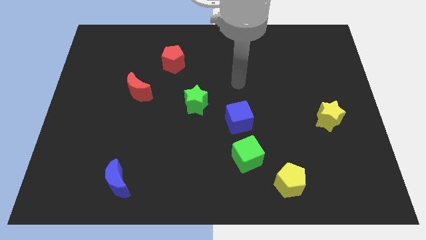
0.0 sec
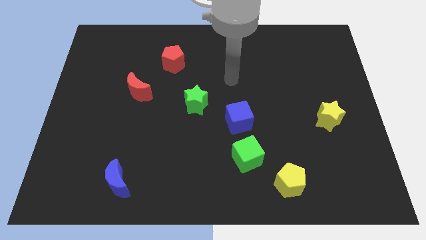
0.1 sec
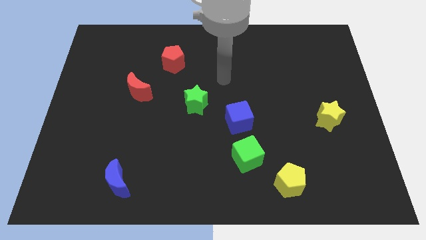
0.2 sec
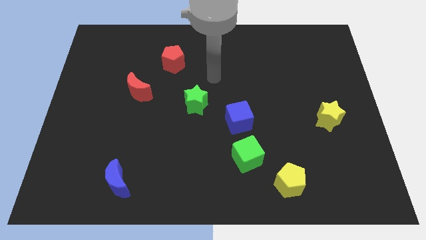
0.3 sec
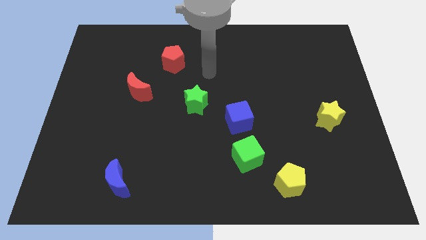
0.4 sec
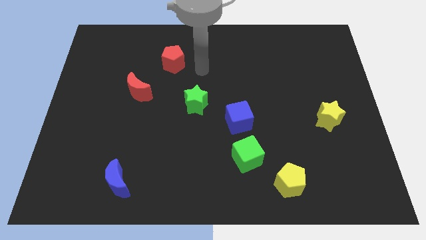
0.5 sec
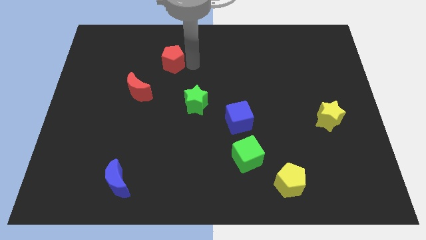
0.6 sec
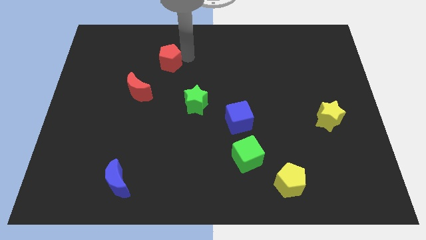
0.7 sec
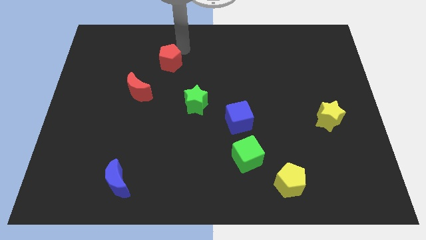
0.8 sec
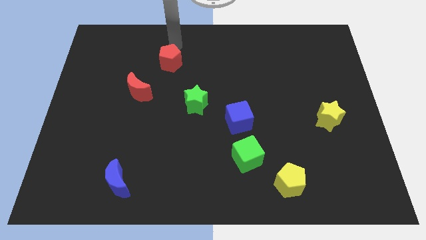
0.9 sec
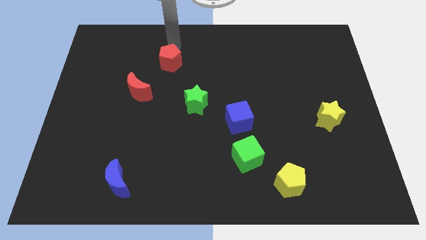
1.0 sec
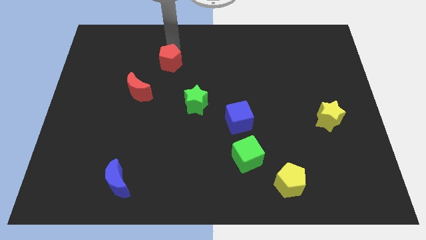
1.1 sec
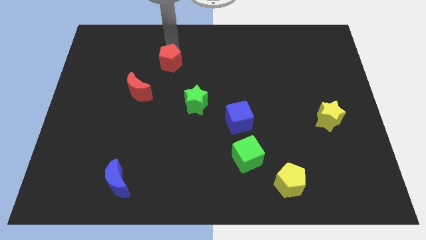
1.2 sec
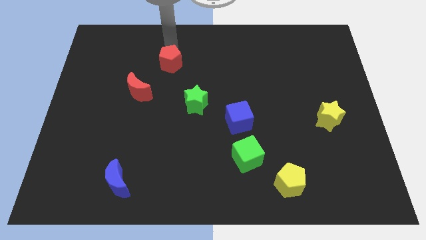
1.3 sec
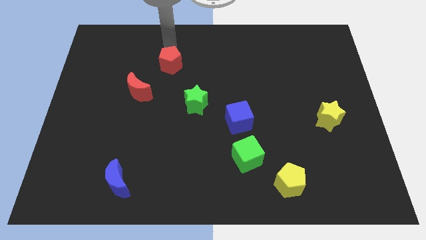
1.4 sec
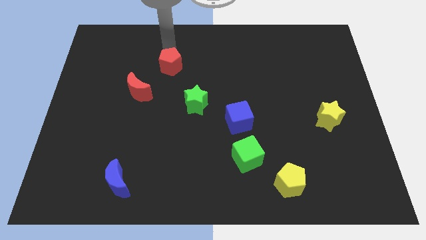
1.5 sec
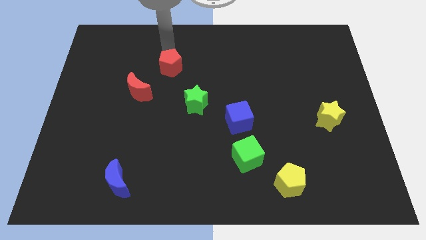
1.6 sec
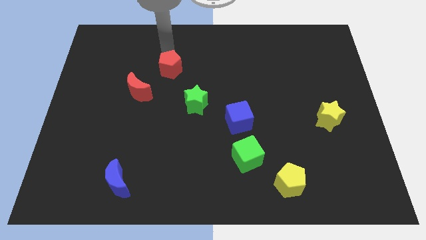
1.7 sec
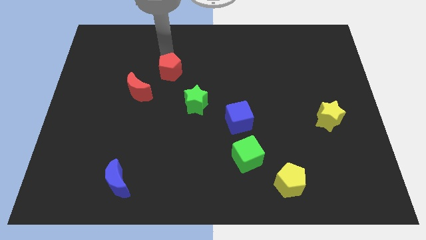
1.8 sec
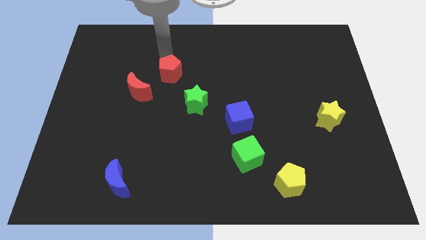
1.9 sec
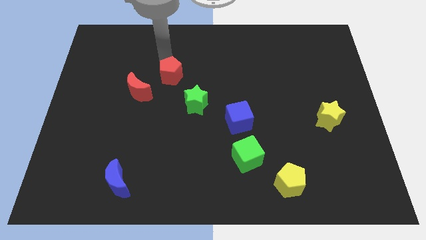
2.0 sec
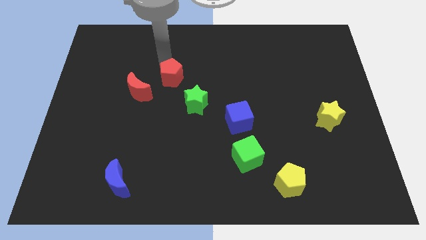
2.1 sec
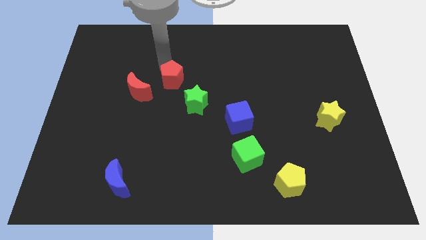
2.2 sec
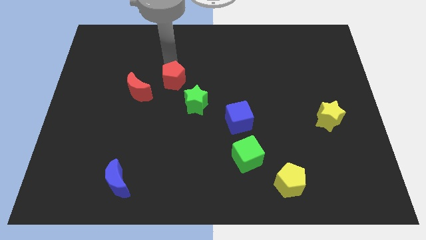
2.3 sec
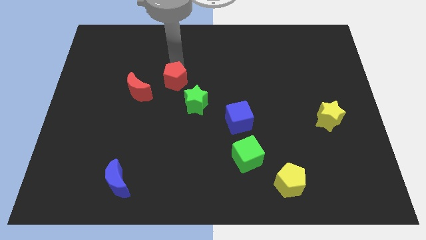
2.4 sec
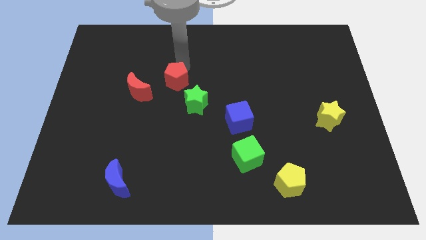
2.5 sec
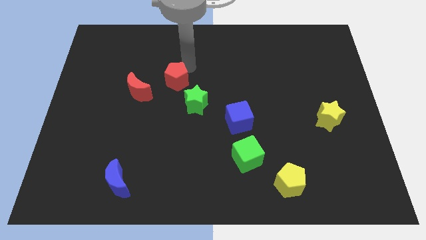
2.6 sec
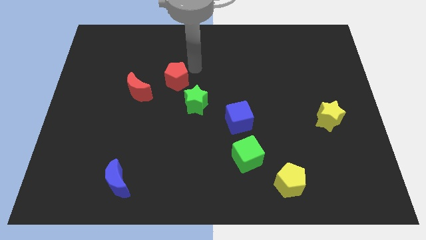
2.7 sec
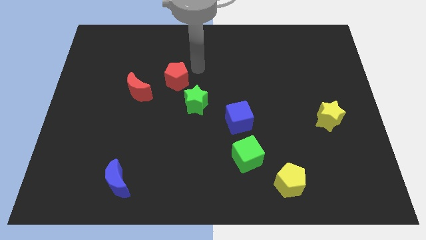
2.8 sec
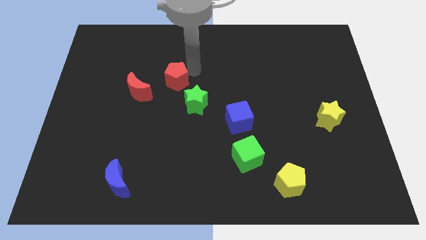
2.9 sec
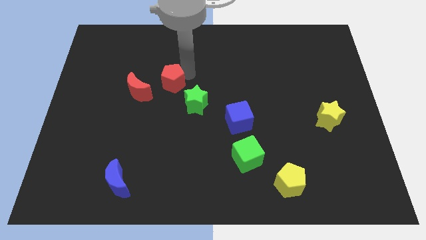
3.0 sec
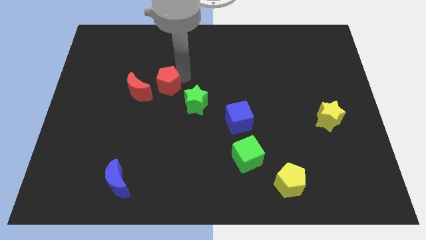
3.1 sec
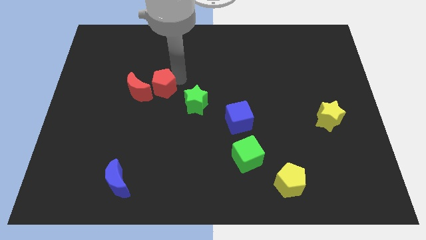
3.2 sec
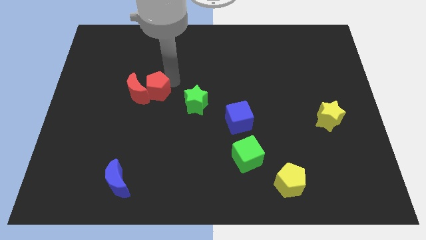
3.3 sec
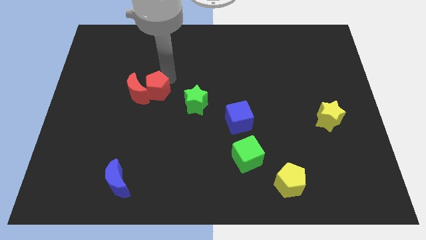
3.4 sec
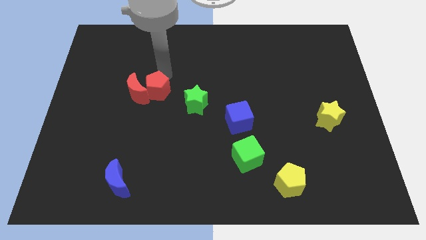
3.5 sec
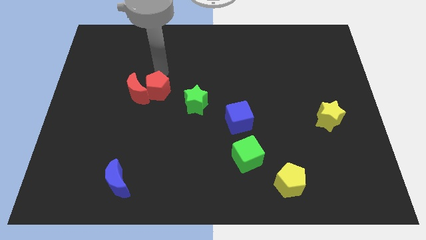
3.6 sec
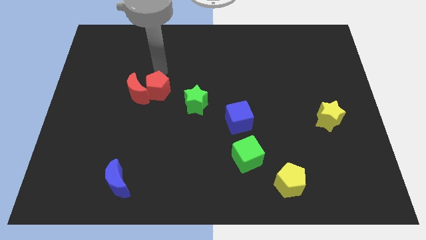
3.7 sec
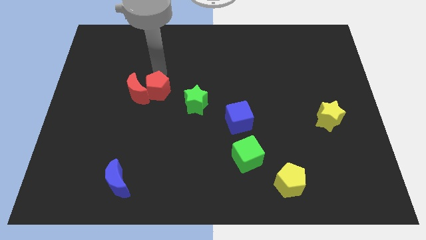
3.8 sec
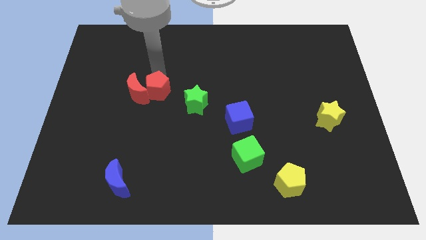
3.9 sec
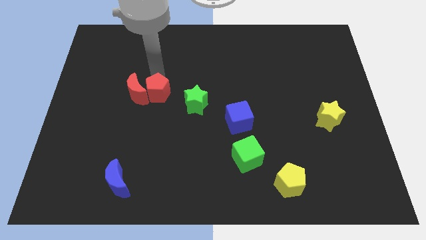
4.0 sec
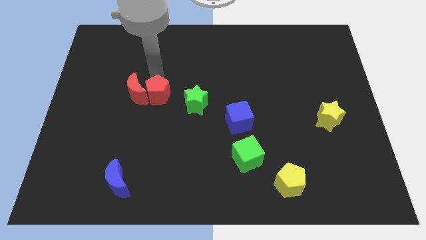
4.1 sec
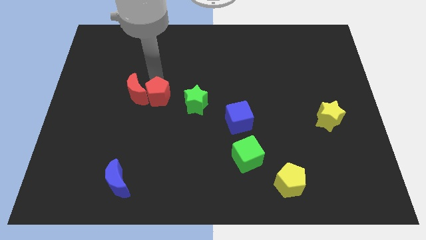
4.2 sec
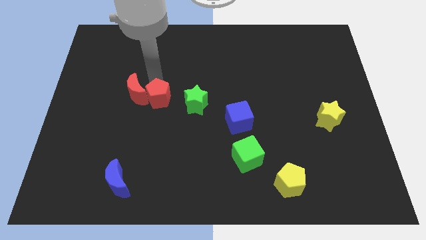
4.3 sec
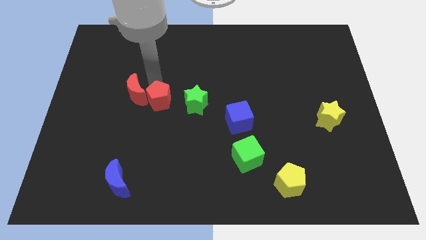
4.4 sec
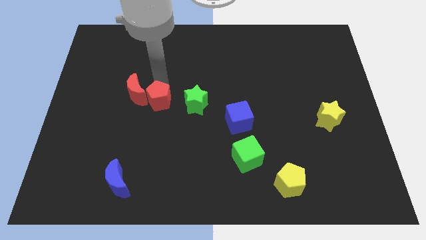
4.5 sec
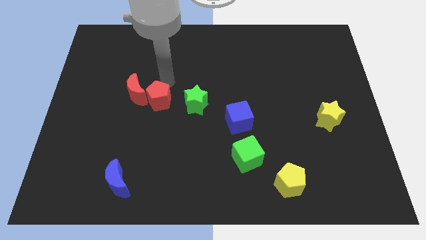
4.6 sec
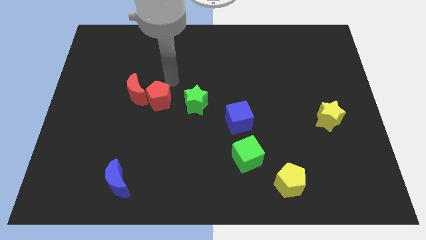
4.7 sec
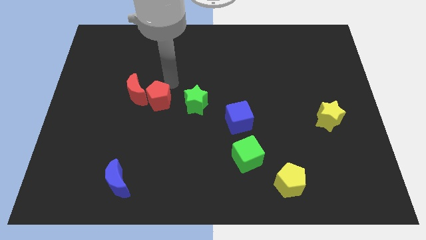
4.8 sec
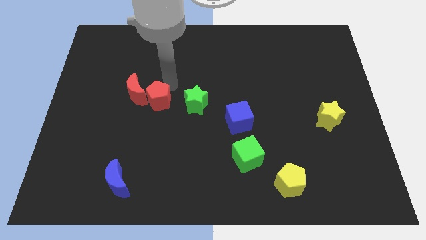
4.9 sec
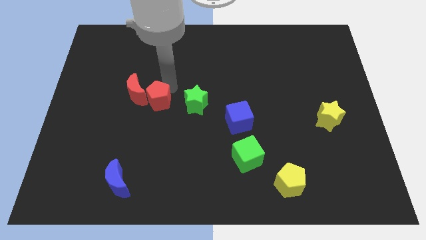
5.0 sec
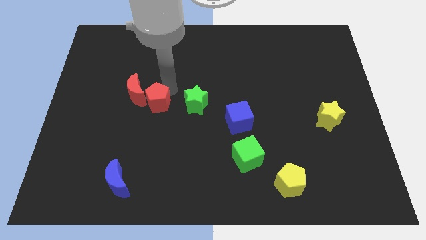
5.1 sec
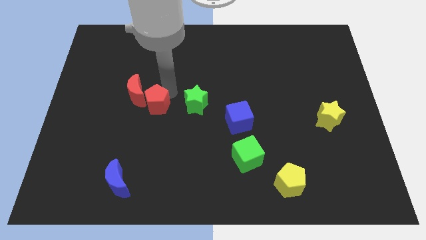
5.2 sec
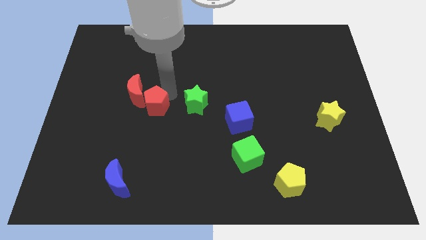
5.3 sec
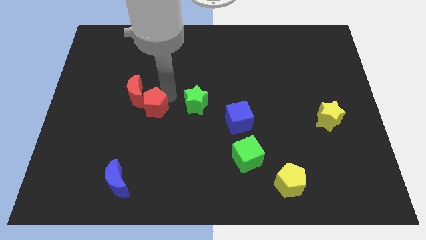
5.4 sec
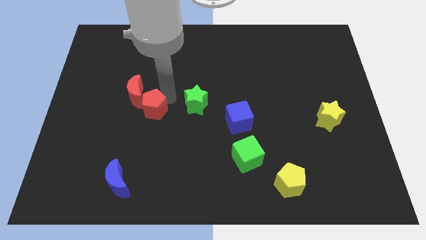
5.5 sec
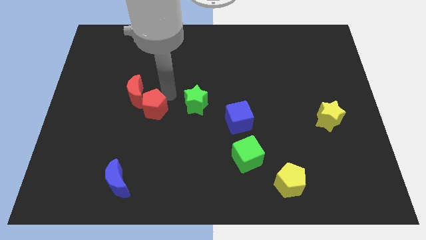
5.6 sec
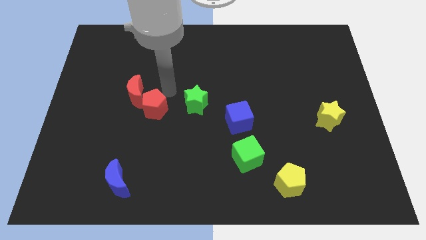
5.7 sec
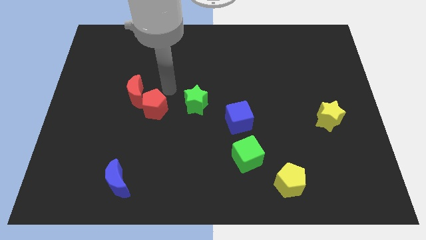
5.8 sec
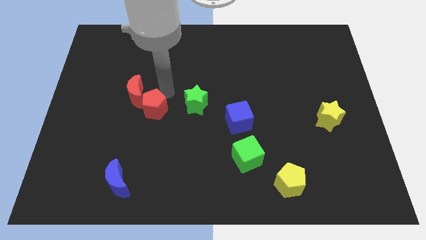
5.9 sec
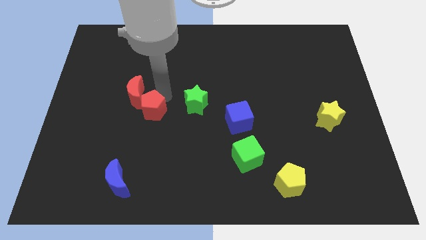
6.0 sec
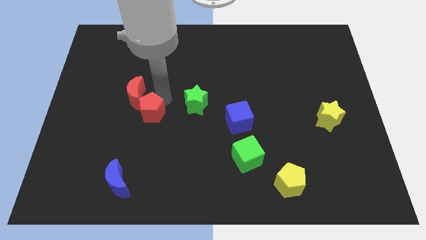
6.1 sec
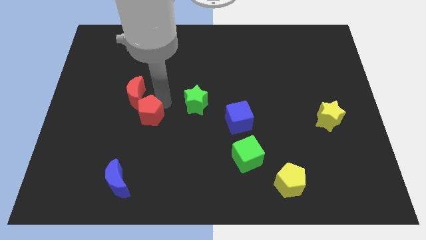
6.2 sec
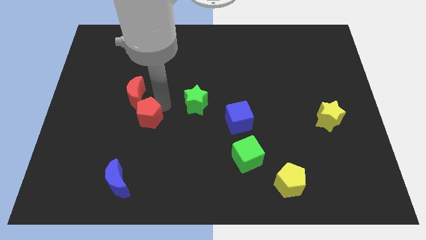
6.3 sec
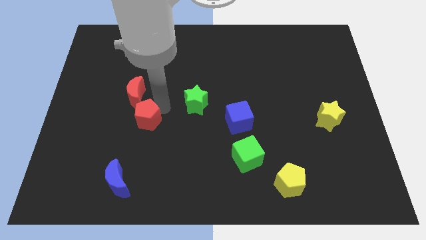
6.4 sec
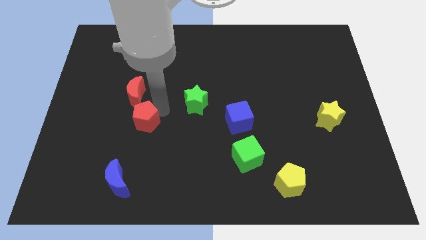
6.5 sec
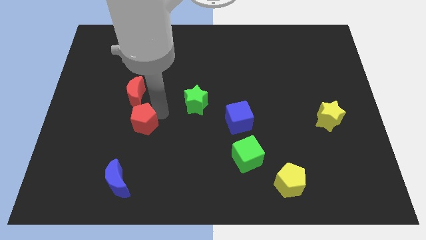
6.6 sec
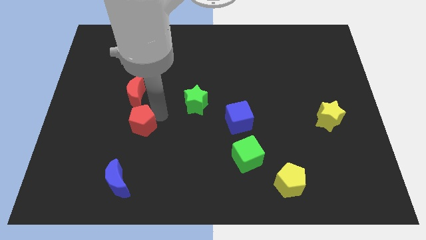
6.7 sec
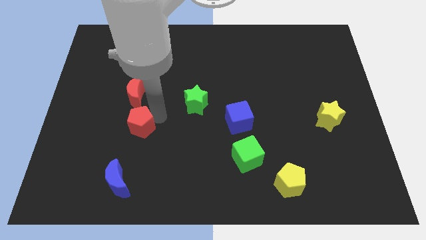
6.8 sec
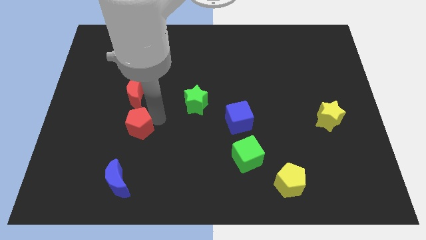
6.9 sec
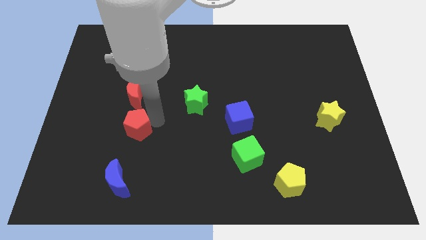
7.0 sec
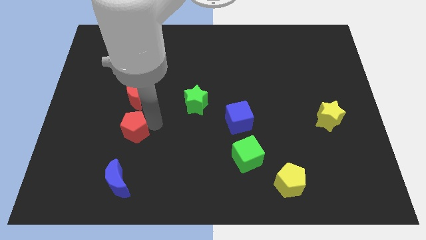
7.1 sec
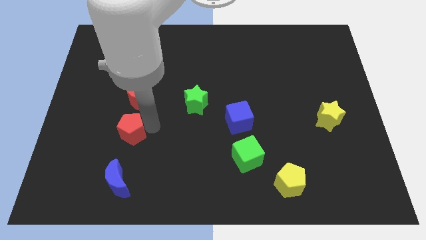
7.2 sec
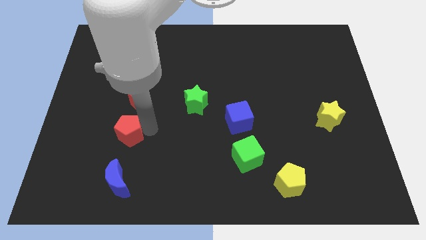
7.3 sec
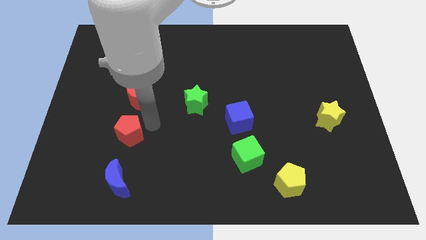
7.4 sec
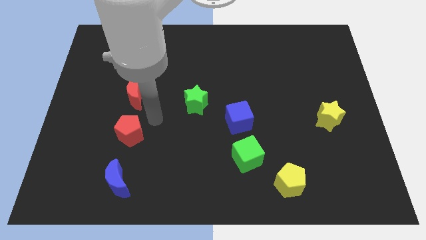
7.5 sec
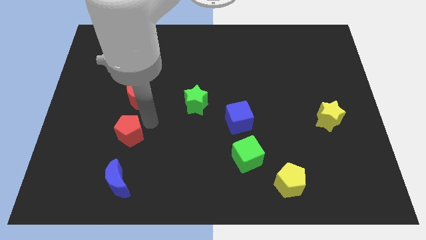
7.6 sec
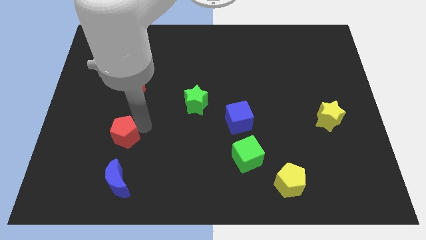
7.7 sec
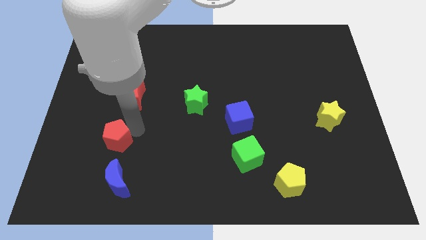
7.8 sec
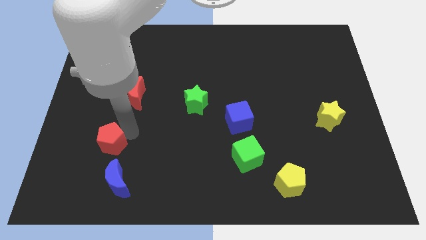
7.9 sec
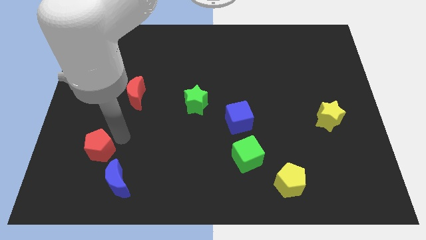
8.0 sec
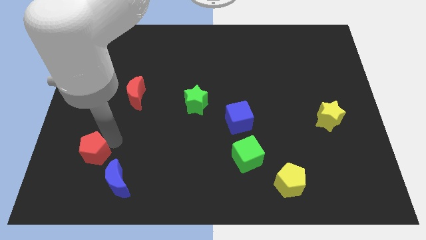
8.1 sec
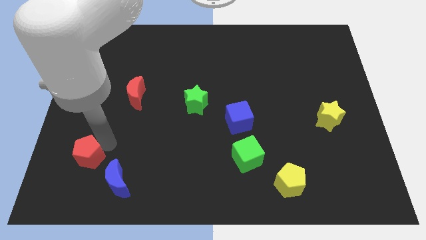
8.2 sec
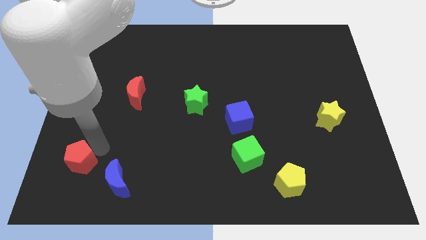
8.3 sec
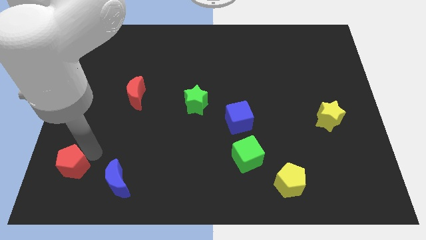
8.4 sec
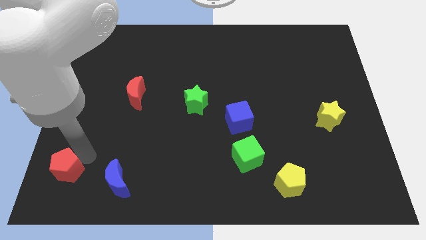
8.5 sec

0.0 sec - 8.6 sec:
push the red pentagon to the bottom left
